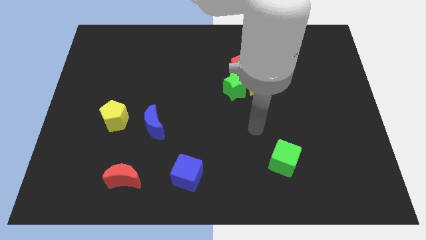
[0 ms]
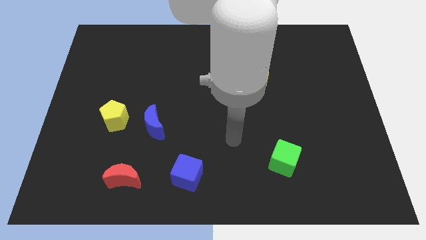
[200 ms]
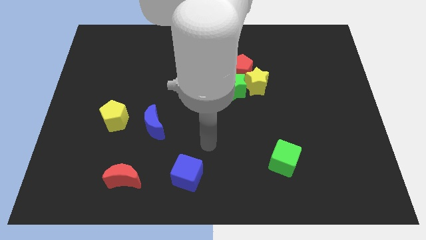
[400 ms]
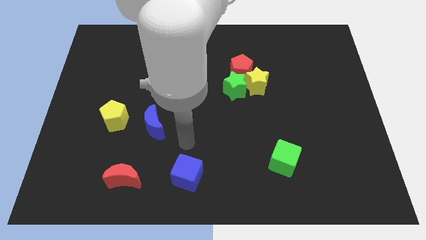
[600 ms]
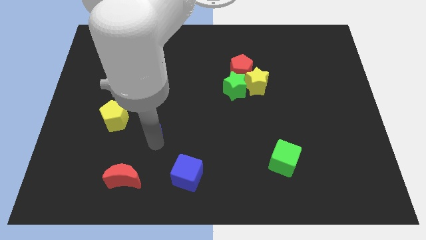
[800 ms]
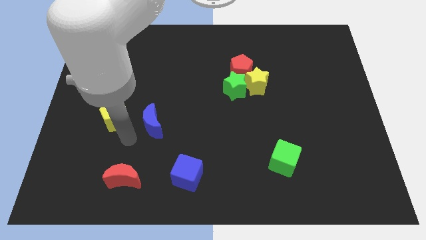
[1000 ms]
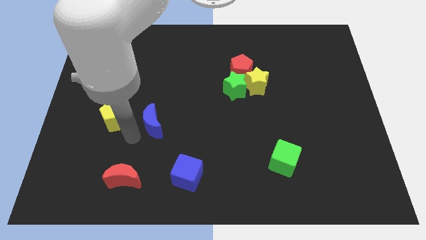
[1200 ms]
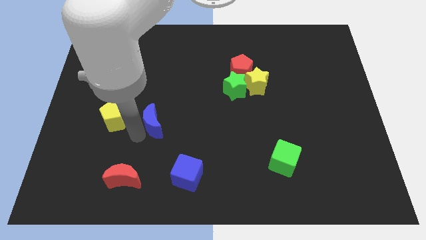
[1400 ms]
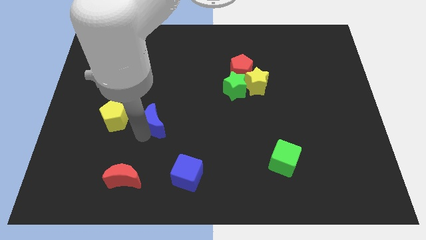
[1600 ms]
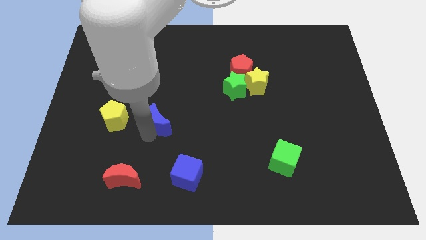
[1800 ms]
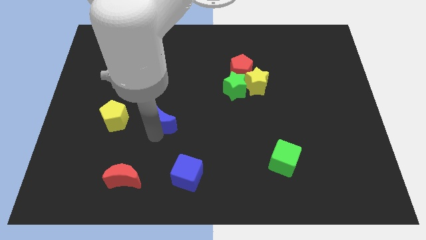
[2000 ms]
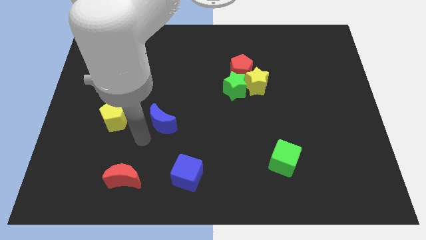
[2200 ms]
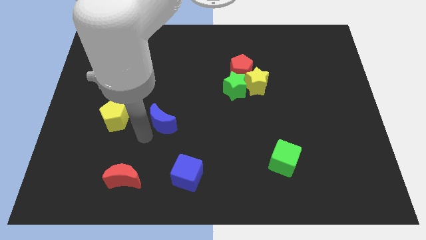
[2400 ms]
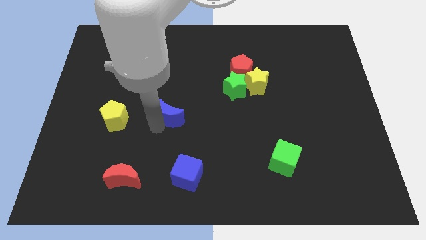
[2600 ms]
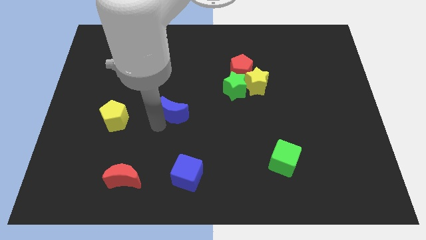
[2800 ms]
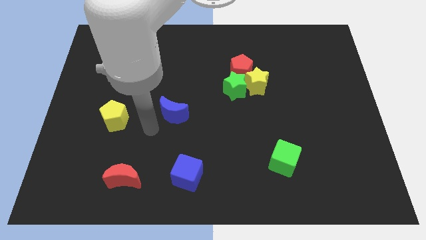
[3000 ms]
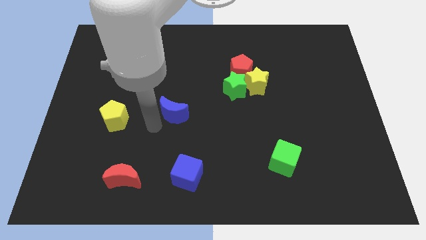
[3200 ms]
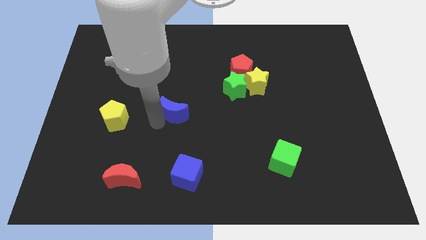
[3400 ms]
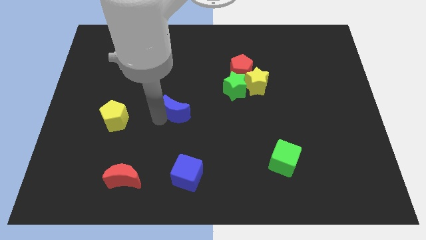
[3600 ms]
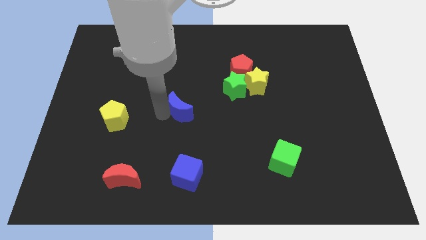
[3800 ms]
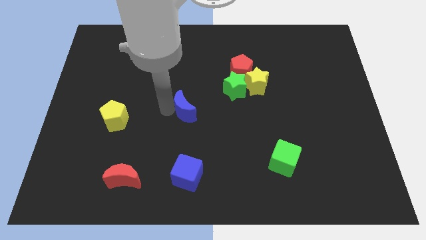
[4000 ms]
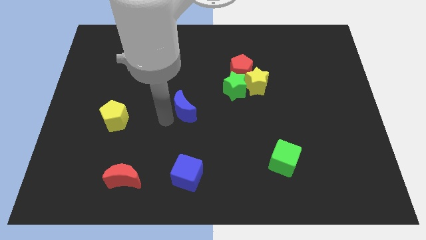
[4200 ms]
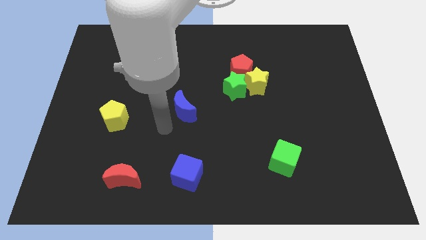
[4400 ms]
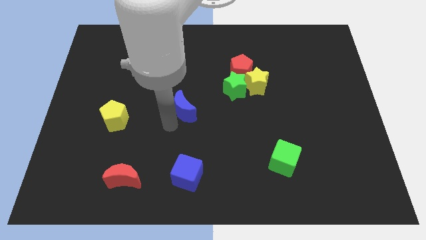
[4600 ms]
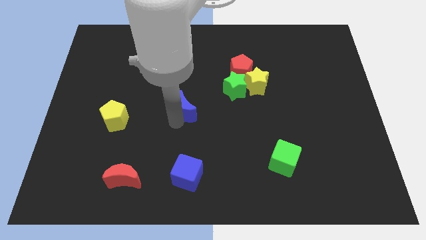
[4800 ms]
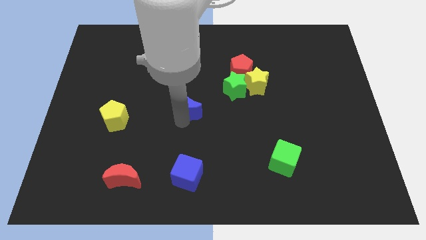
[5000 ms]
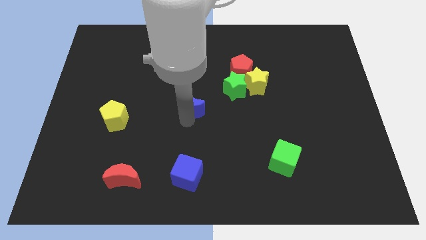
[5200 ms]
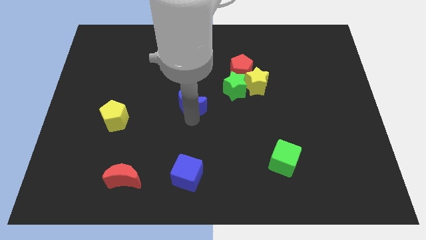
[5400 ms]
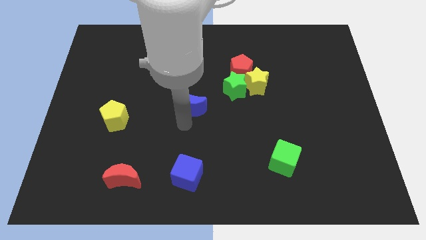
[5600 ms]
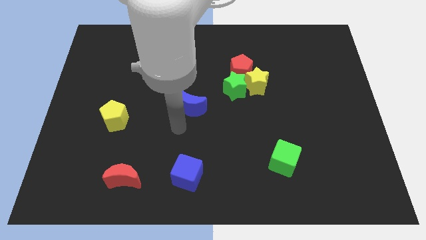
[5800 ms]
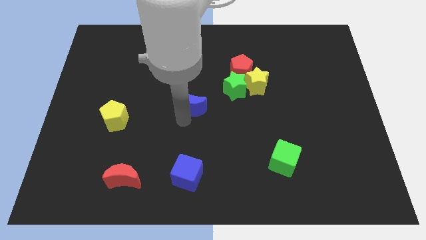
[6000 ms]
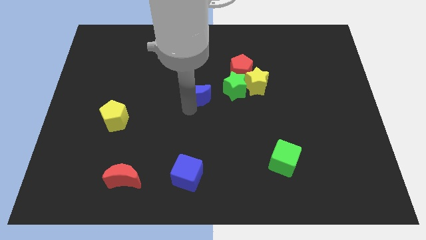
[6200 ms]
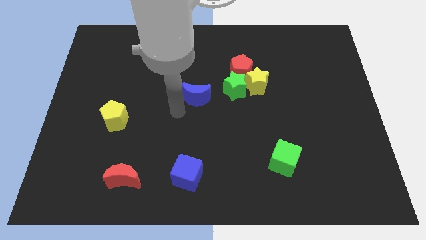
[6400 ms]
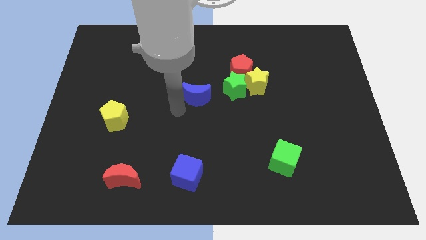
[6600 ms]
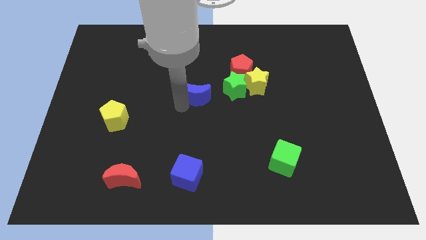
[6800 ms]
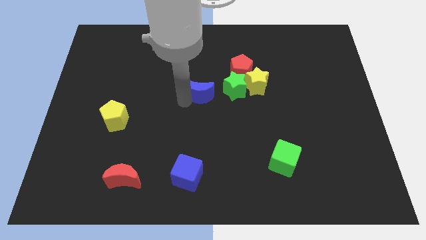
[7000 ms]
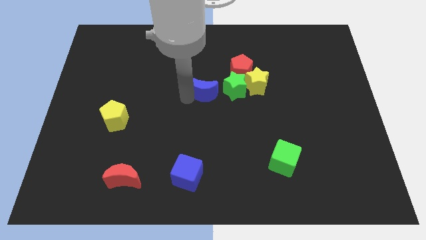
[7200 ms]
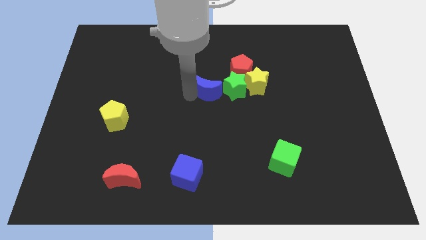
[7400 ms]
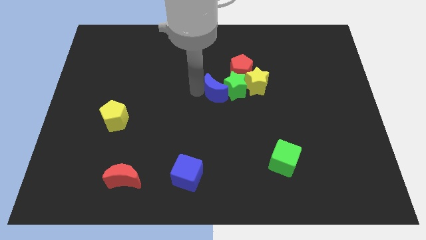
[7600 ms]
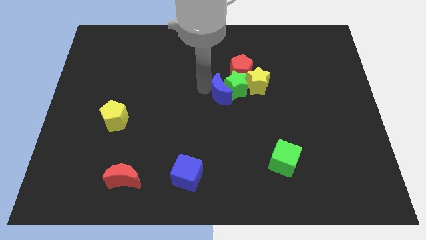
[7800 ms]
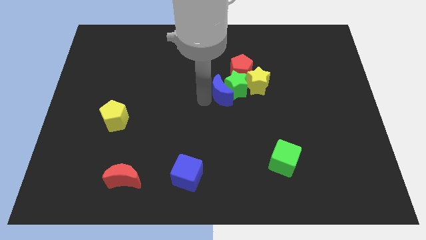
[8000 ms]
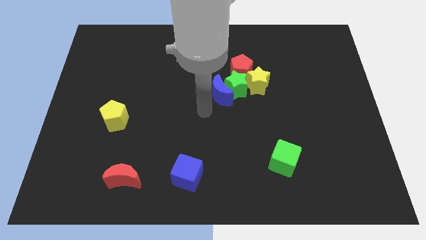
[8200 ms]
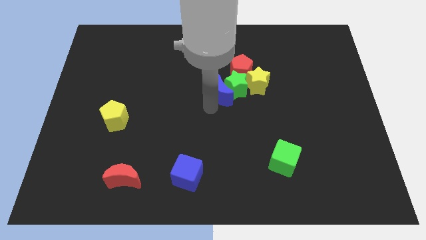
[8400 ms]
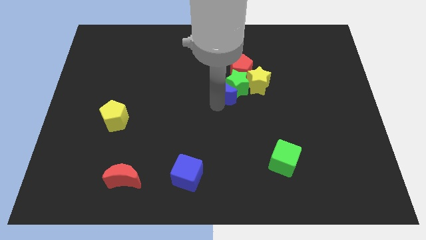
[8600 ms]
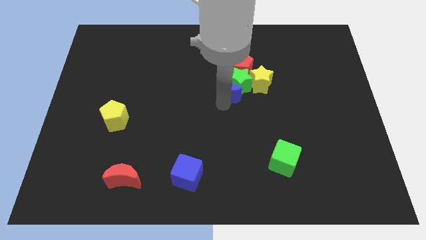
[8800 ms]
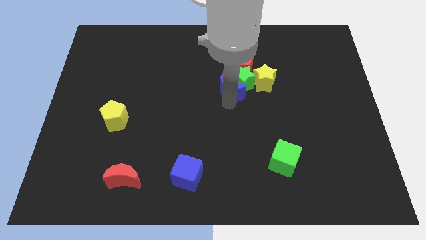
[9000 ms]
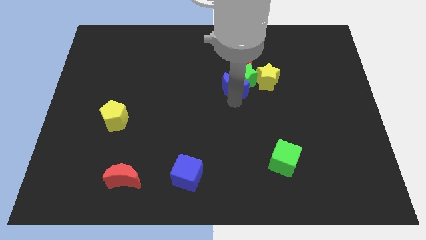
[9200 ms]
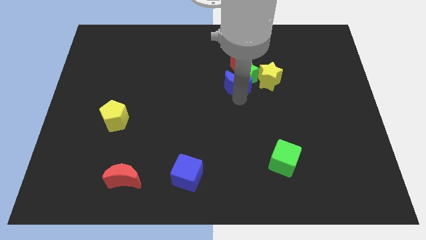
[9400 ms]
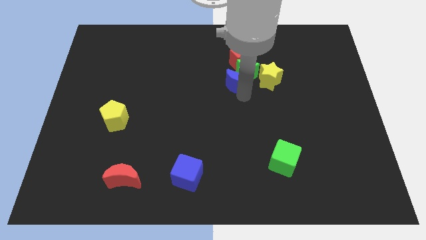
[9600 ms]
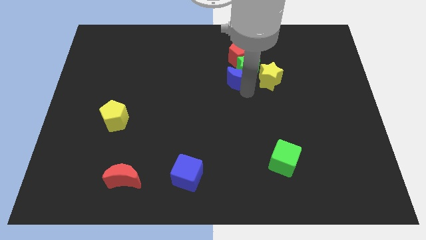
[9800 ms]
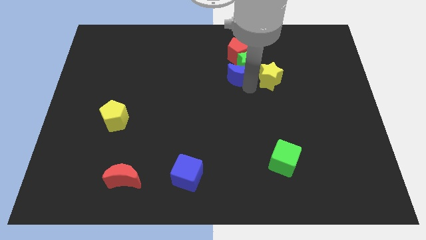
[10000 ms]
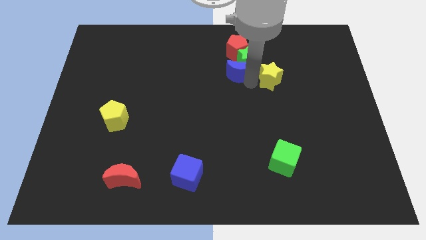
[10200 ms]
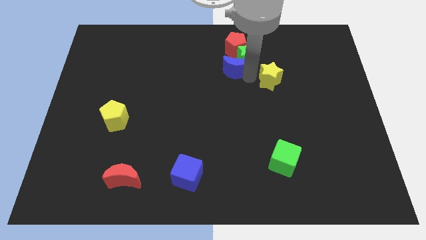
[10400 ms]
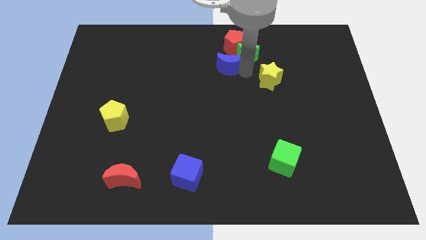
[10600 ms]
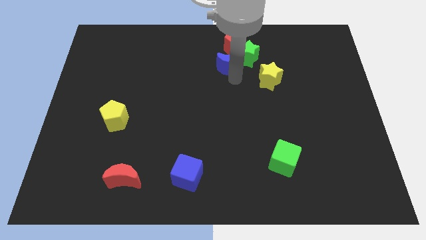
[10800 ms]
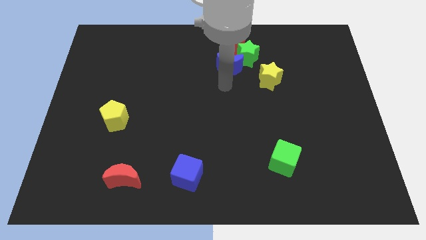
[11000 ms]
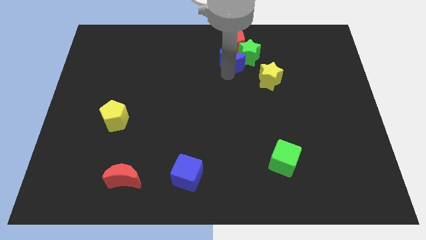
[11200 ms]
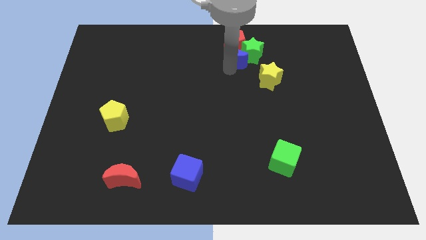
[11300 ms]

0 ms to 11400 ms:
push the blue moon towards the red pentagon

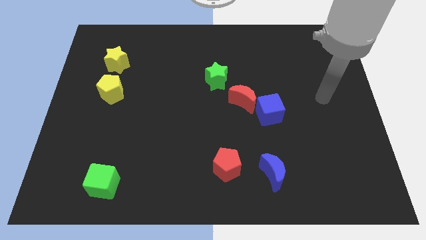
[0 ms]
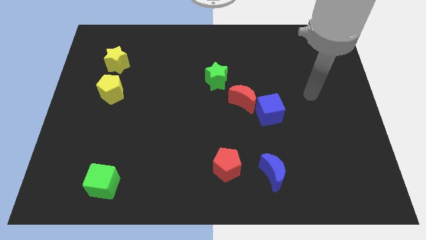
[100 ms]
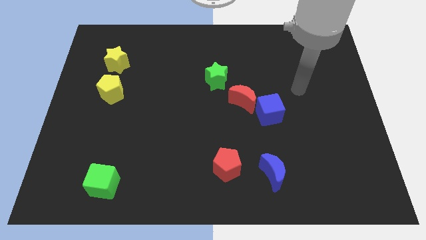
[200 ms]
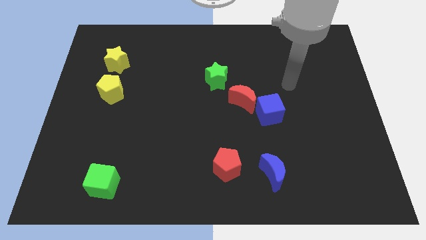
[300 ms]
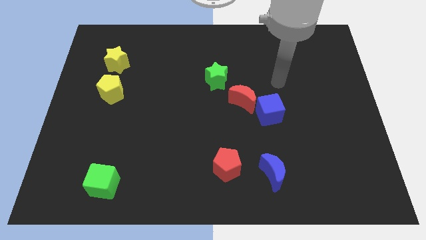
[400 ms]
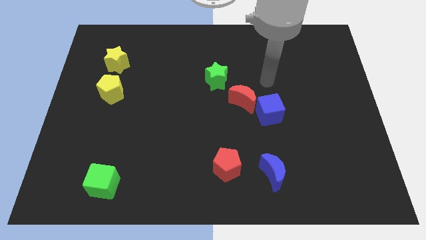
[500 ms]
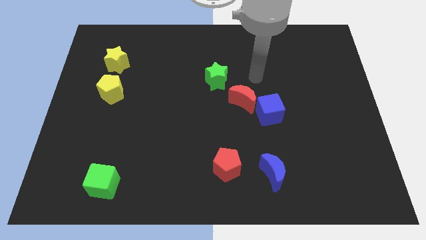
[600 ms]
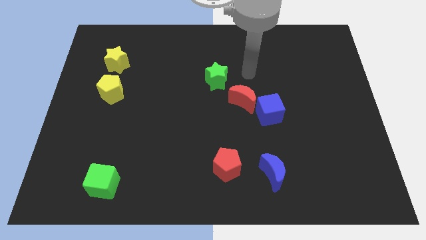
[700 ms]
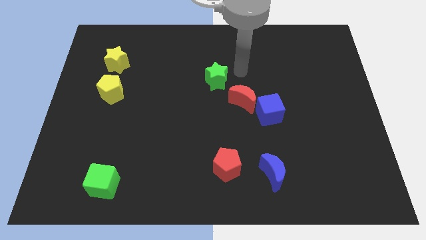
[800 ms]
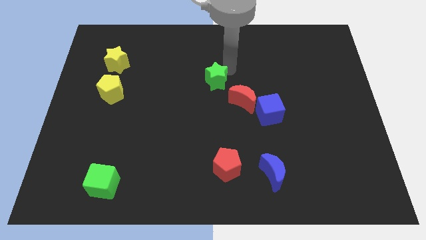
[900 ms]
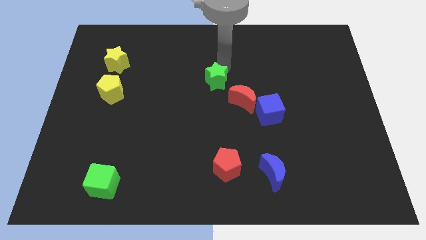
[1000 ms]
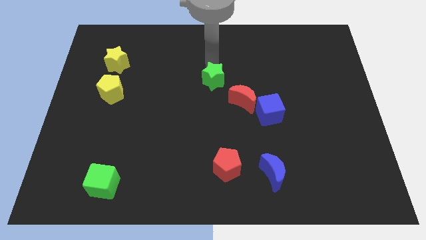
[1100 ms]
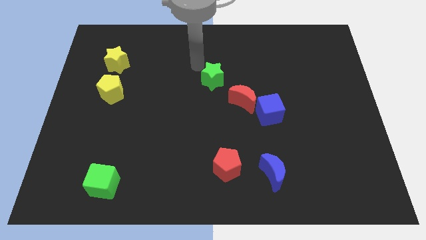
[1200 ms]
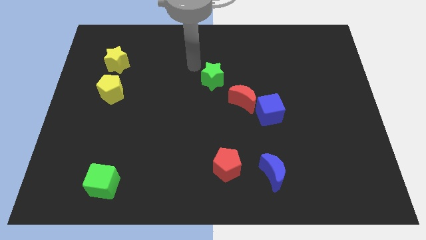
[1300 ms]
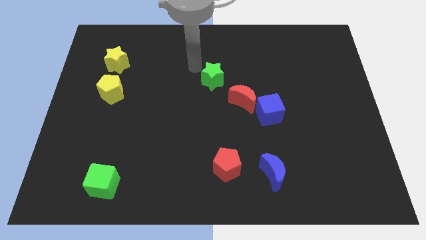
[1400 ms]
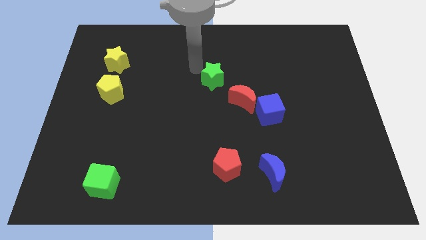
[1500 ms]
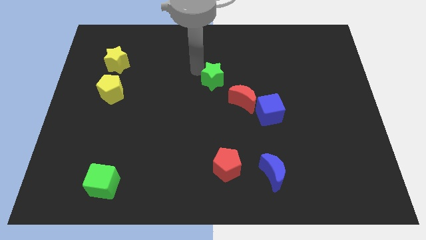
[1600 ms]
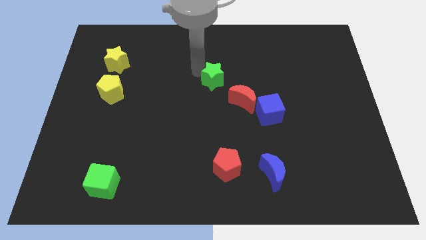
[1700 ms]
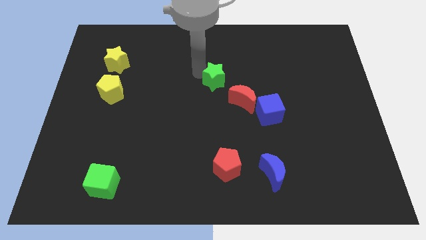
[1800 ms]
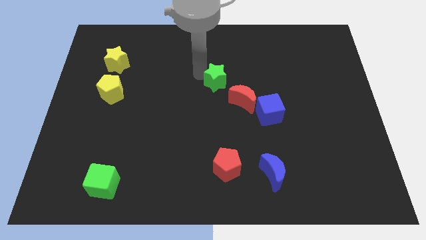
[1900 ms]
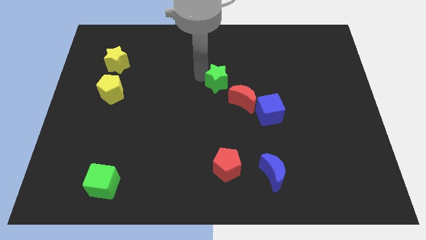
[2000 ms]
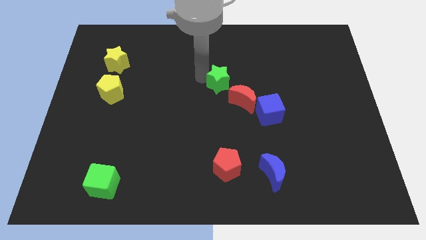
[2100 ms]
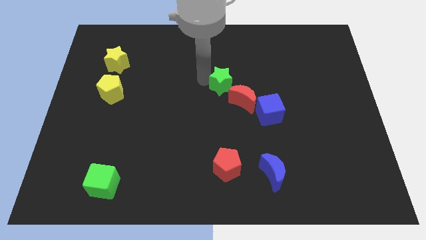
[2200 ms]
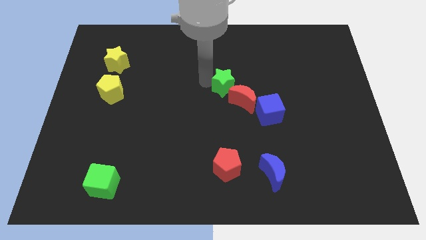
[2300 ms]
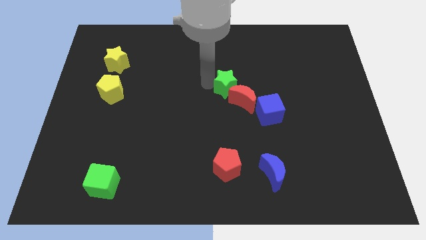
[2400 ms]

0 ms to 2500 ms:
put the green star close to the red moon

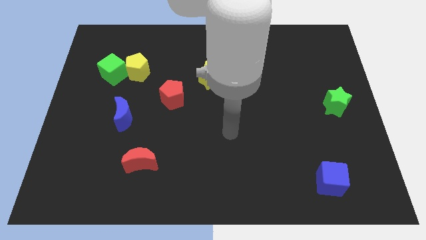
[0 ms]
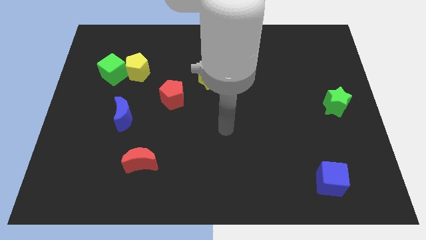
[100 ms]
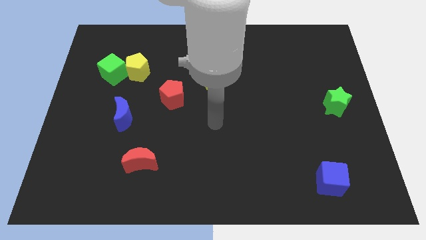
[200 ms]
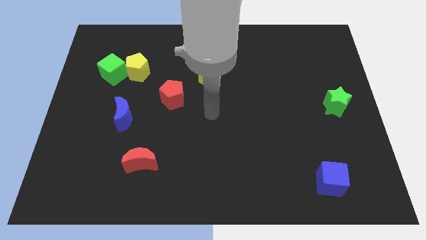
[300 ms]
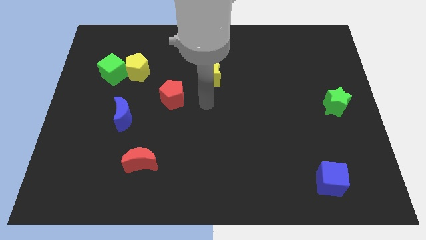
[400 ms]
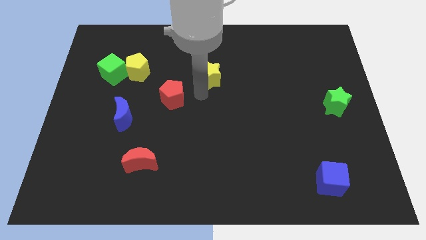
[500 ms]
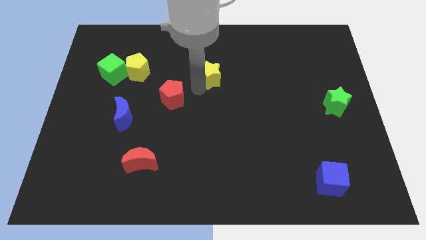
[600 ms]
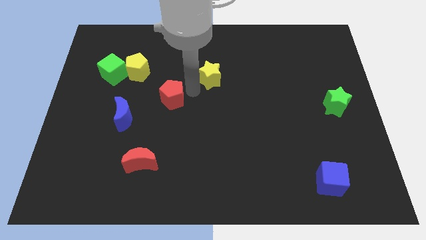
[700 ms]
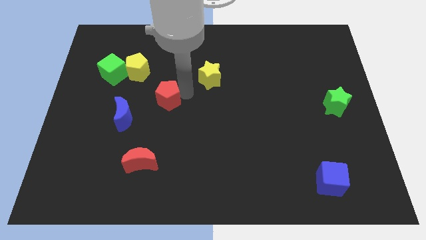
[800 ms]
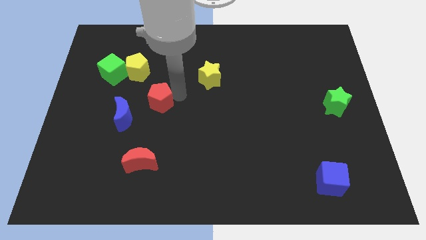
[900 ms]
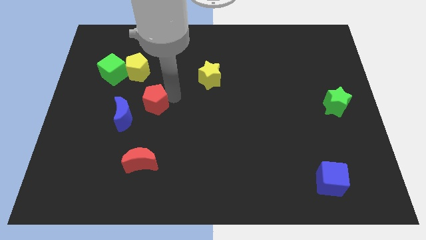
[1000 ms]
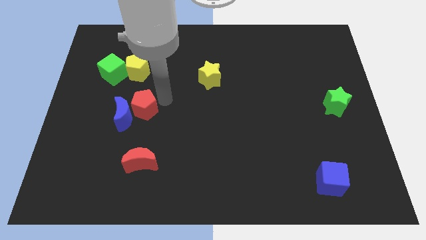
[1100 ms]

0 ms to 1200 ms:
put the red pentagon towards the blue moon
